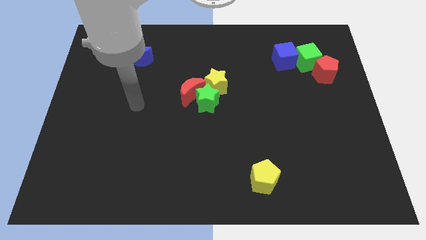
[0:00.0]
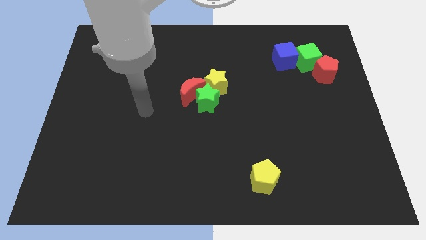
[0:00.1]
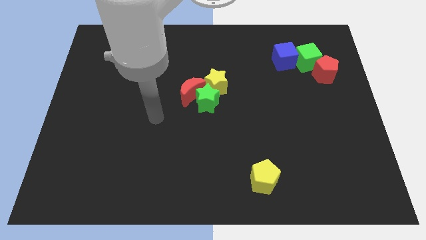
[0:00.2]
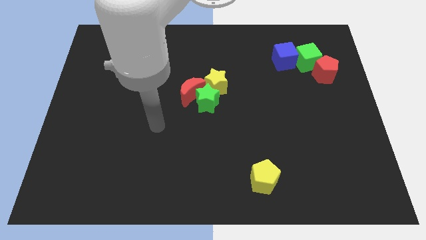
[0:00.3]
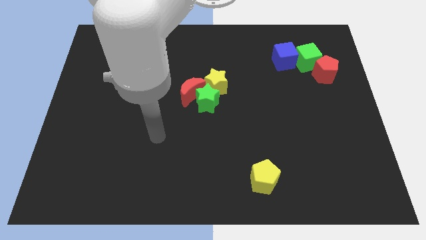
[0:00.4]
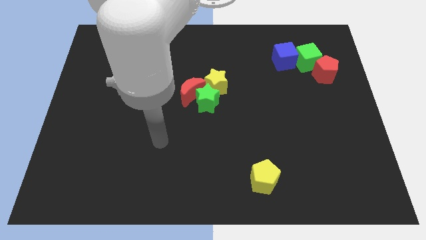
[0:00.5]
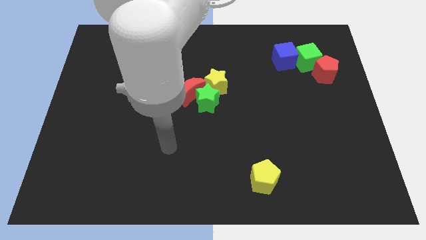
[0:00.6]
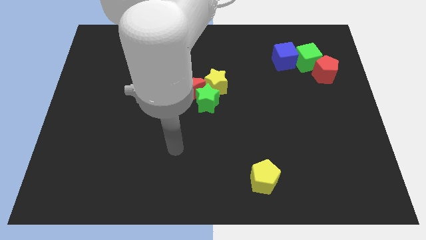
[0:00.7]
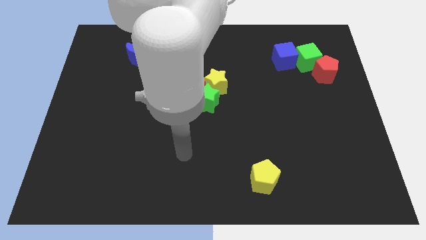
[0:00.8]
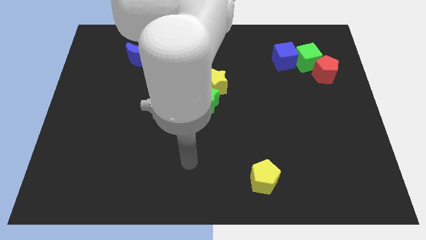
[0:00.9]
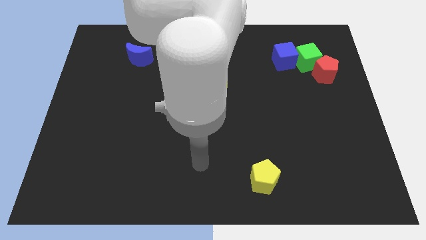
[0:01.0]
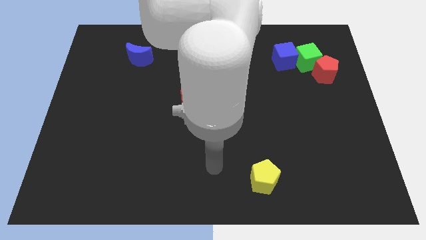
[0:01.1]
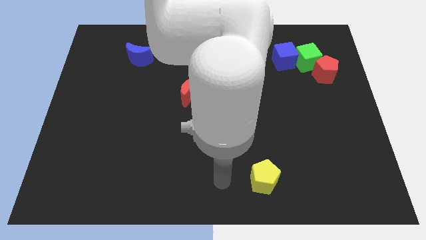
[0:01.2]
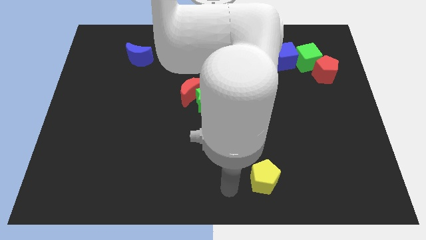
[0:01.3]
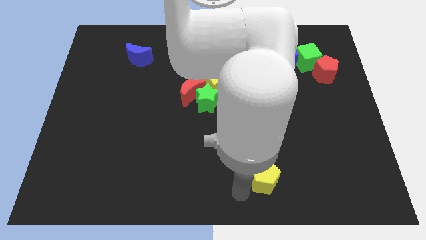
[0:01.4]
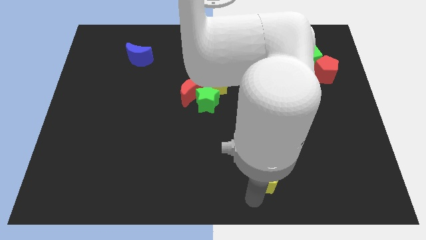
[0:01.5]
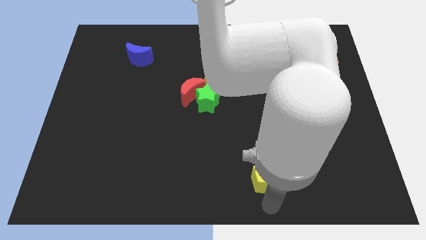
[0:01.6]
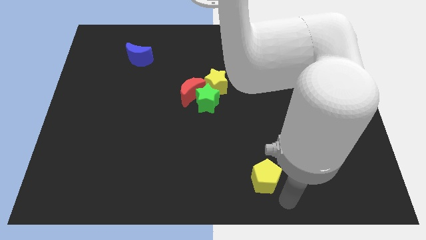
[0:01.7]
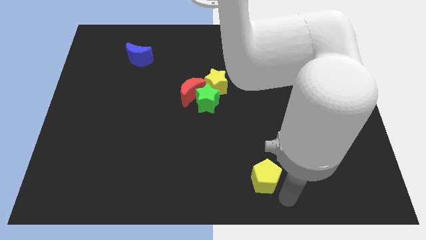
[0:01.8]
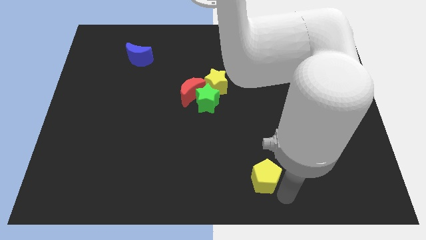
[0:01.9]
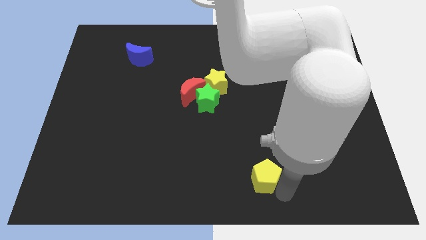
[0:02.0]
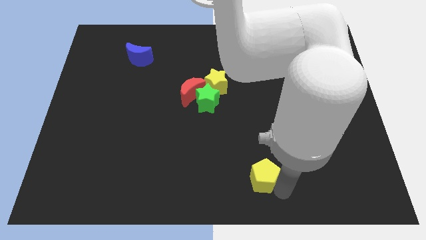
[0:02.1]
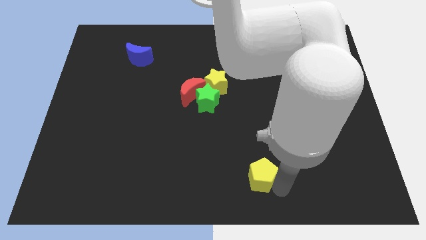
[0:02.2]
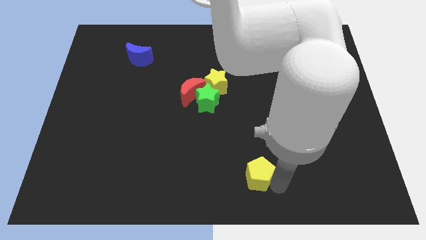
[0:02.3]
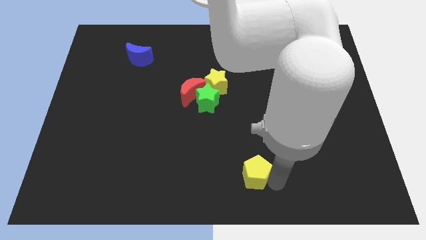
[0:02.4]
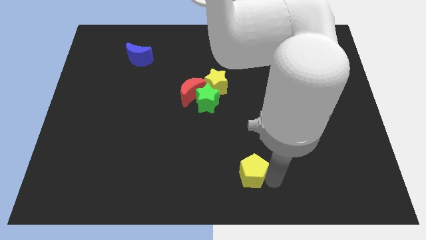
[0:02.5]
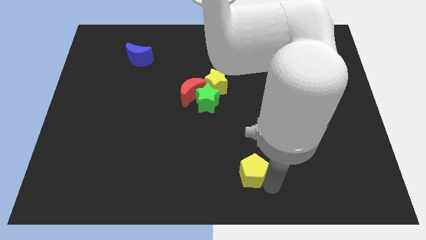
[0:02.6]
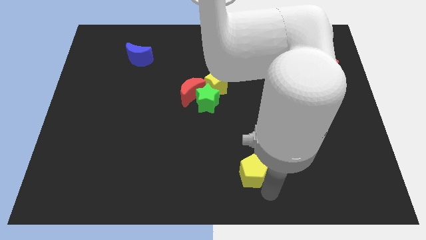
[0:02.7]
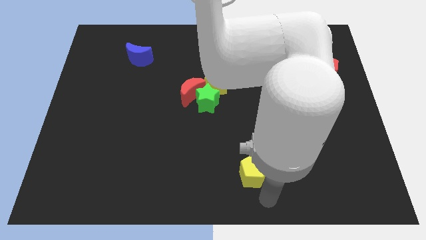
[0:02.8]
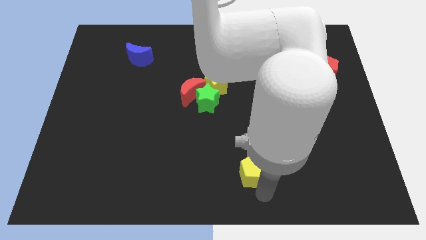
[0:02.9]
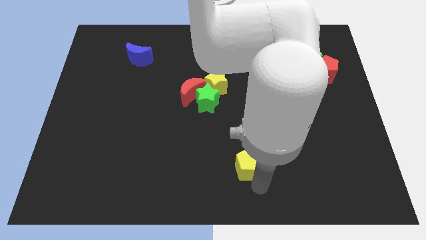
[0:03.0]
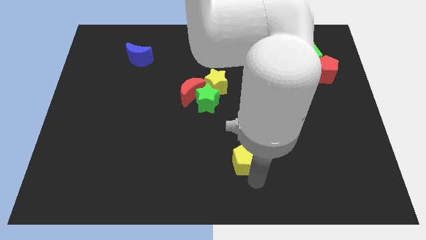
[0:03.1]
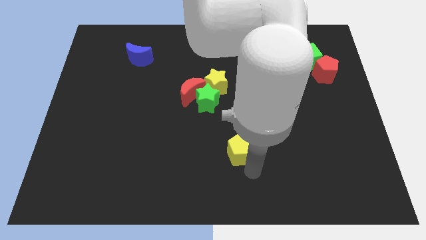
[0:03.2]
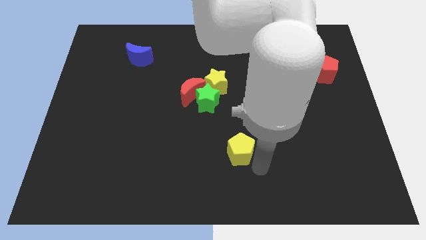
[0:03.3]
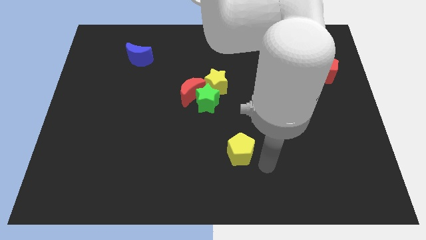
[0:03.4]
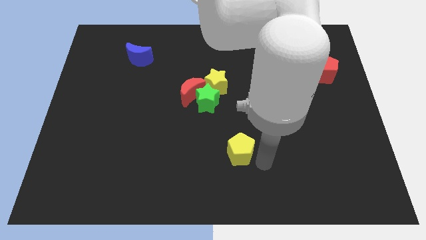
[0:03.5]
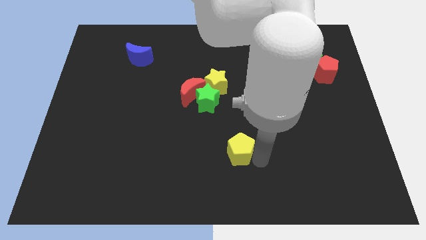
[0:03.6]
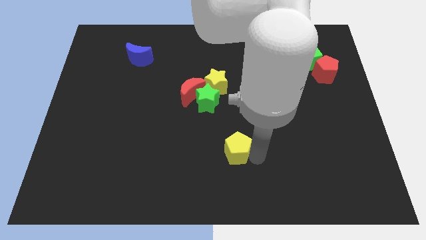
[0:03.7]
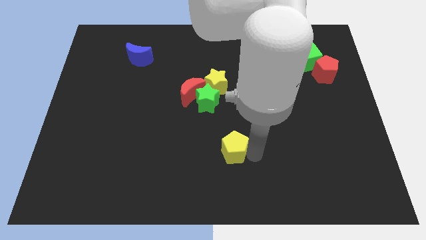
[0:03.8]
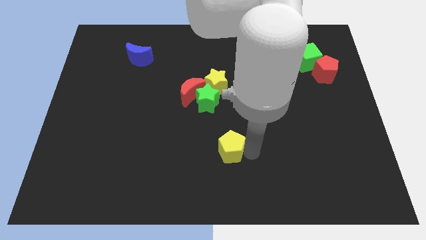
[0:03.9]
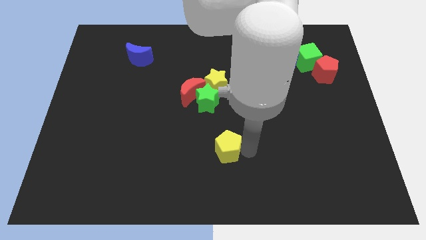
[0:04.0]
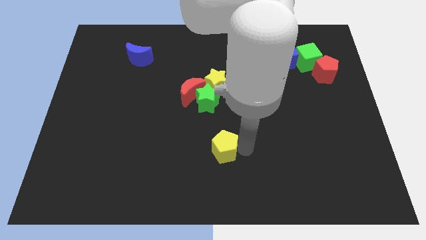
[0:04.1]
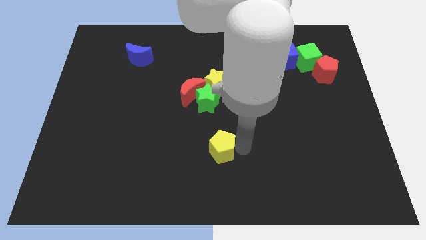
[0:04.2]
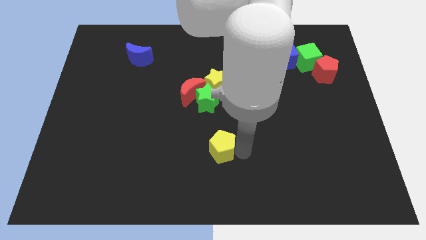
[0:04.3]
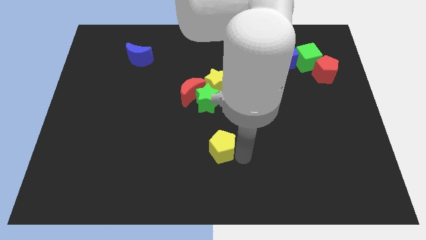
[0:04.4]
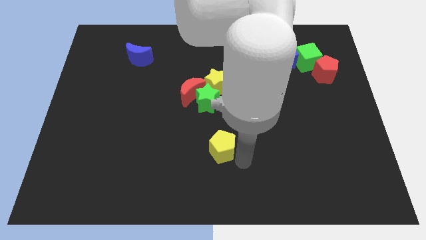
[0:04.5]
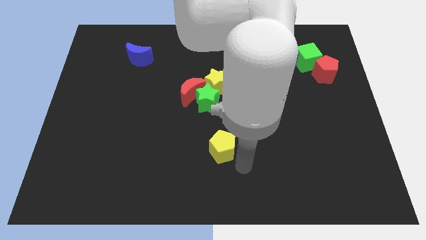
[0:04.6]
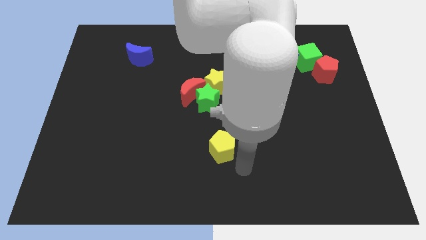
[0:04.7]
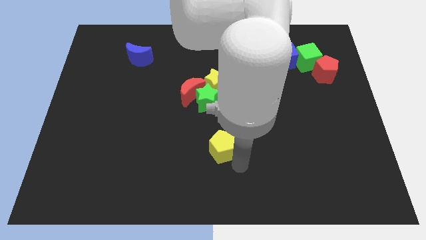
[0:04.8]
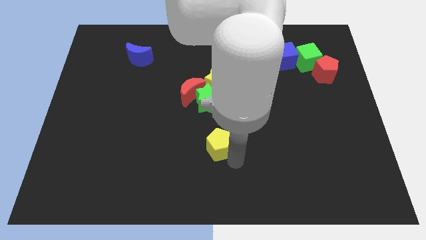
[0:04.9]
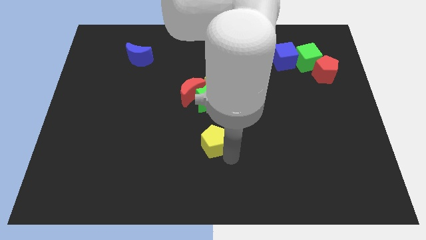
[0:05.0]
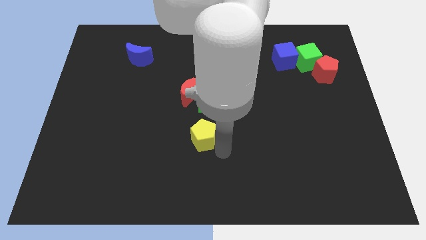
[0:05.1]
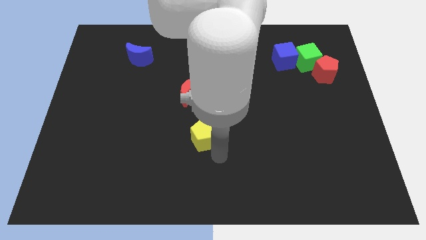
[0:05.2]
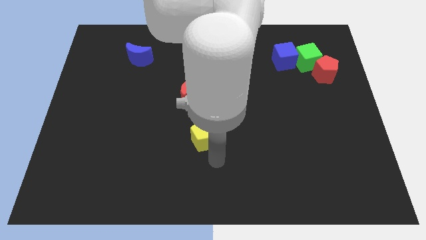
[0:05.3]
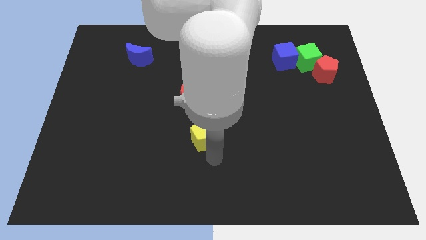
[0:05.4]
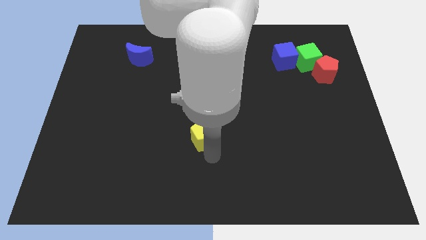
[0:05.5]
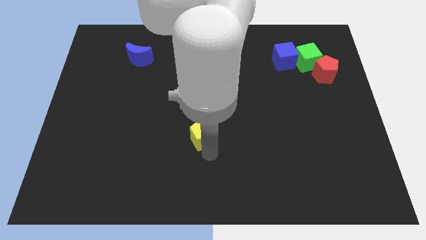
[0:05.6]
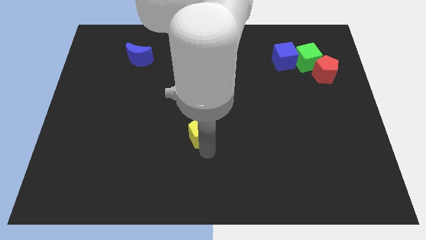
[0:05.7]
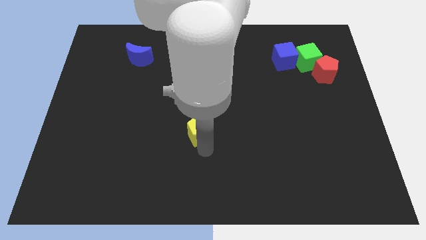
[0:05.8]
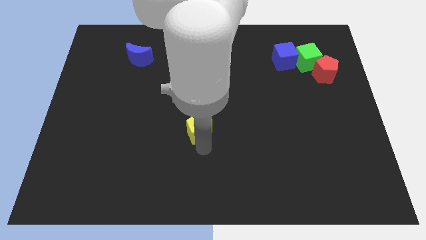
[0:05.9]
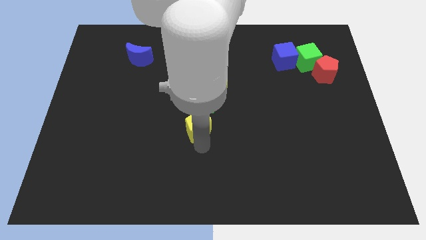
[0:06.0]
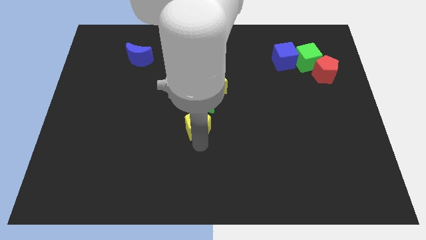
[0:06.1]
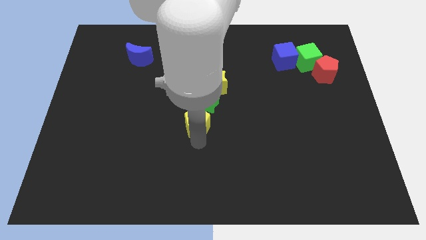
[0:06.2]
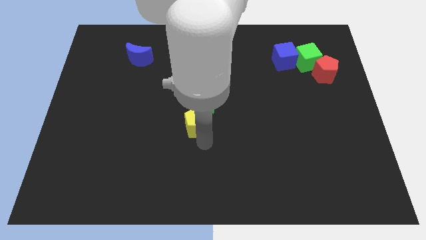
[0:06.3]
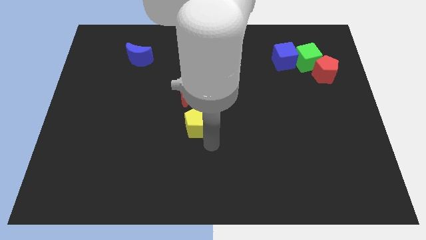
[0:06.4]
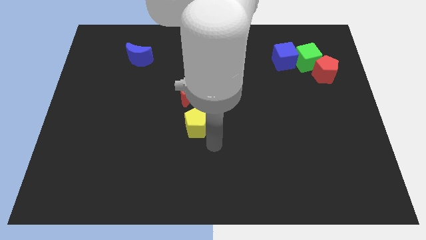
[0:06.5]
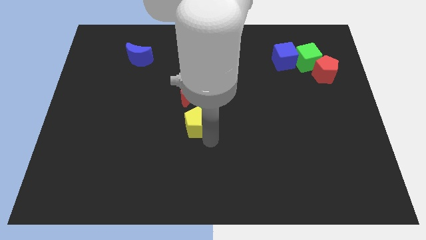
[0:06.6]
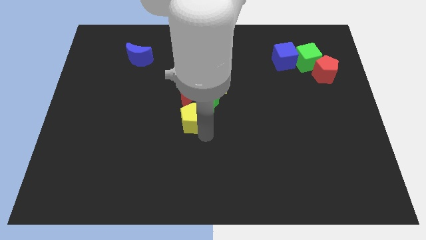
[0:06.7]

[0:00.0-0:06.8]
move the yellow pentagon upwards and to the left diagonally

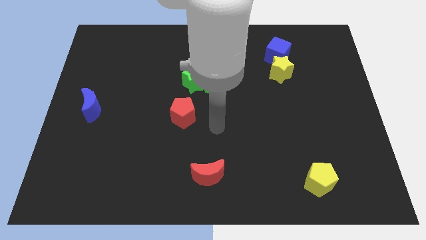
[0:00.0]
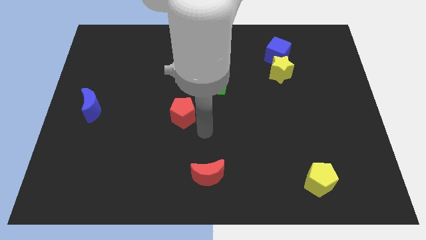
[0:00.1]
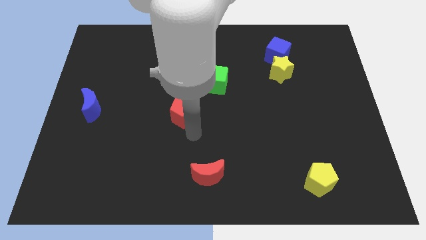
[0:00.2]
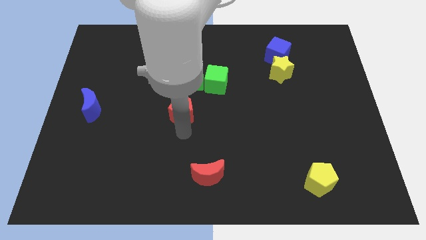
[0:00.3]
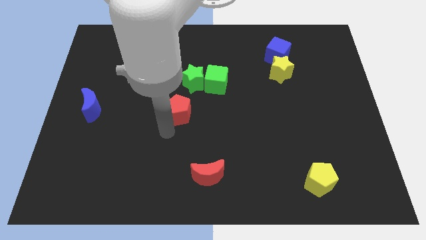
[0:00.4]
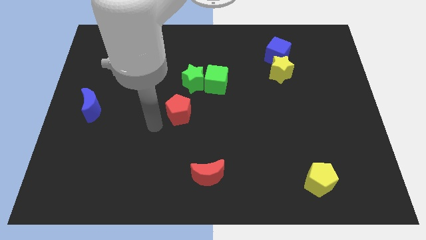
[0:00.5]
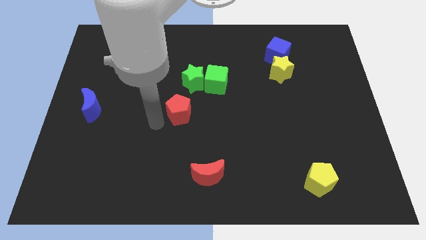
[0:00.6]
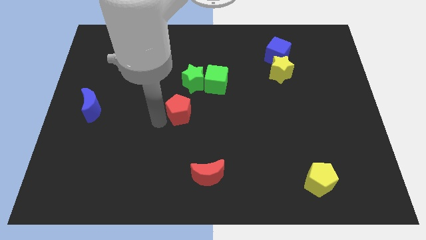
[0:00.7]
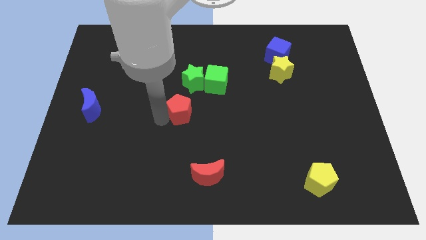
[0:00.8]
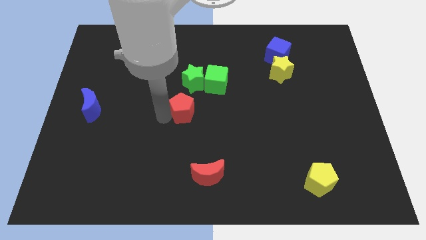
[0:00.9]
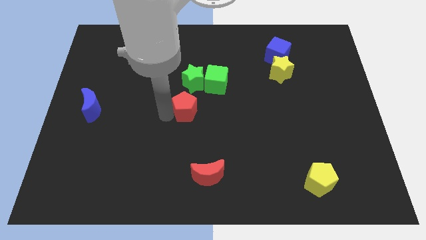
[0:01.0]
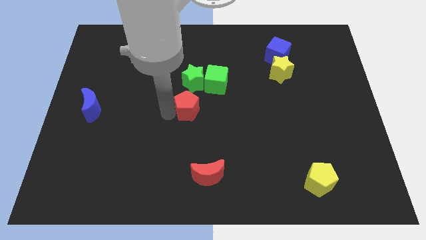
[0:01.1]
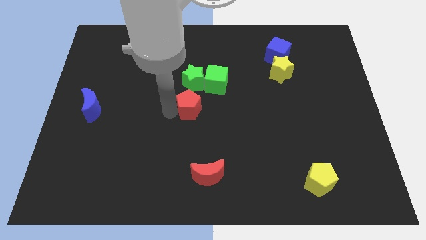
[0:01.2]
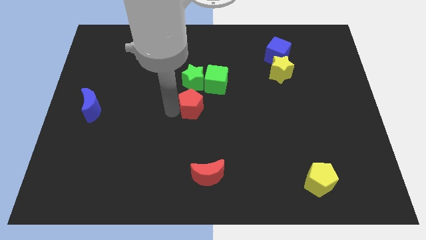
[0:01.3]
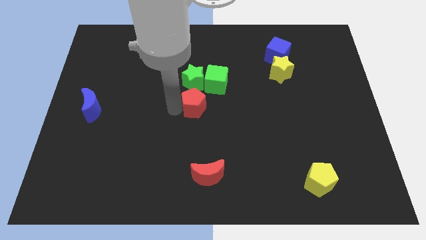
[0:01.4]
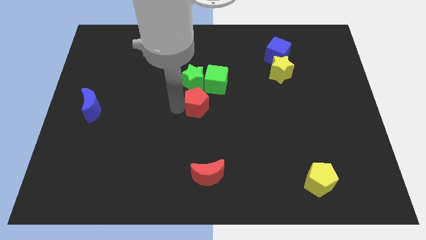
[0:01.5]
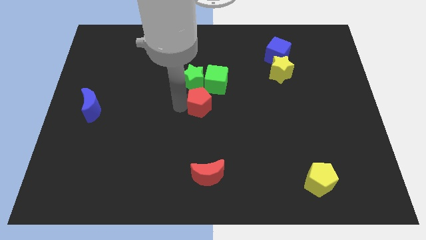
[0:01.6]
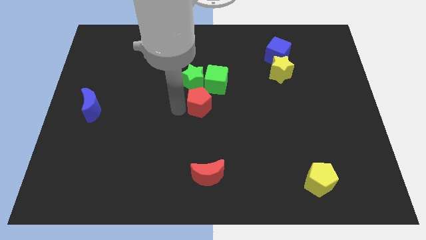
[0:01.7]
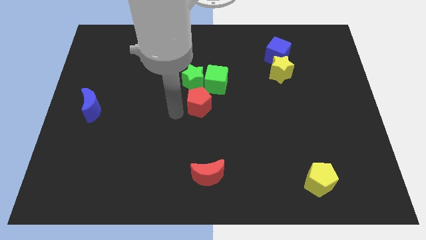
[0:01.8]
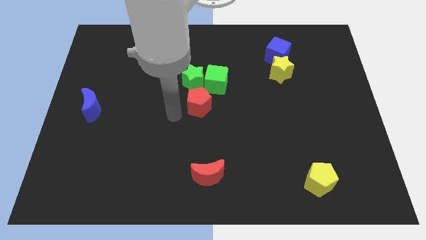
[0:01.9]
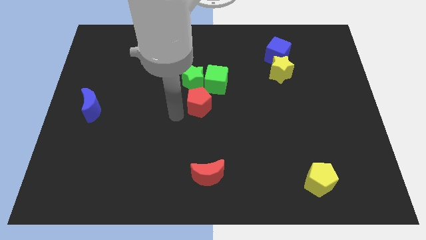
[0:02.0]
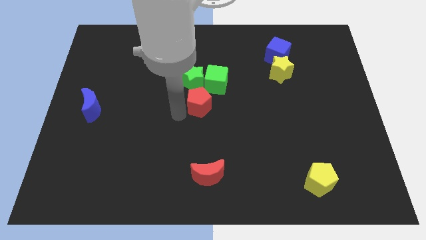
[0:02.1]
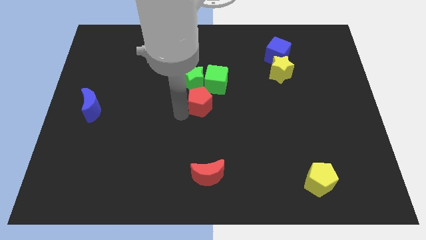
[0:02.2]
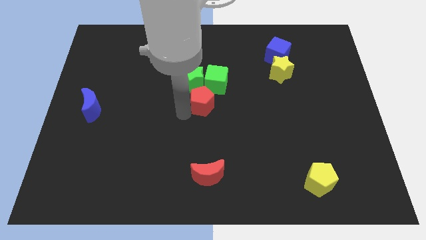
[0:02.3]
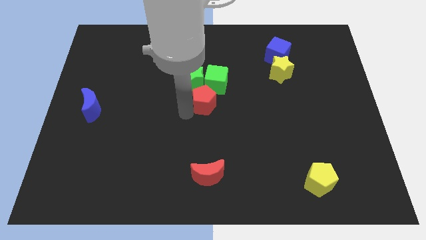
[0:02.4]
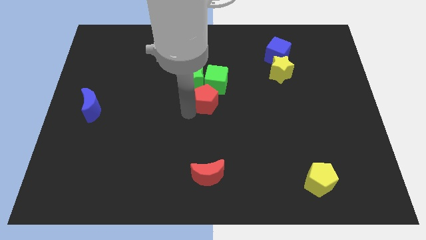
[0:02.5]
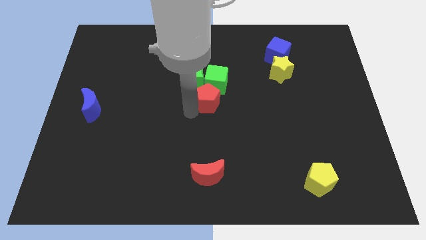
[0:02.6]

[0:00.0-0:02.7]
slightly push the red pentagon upwards and right
